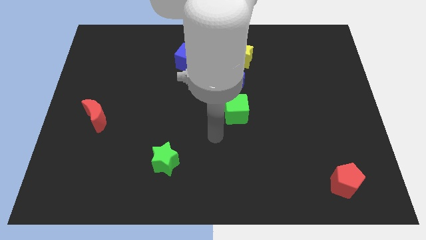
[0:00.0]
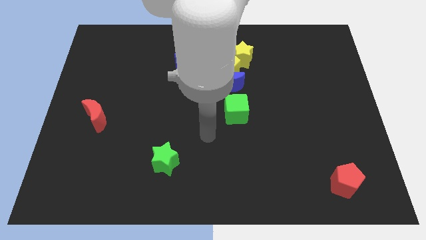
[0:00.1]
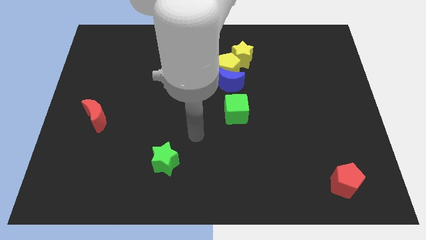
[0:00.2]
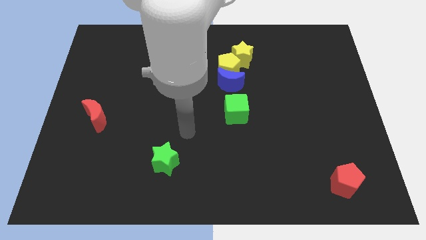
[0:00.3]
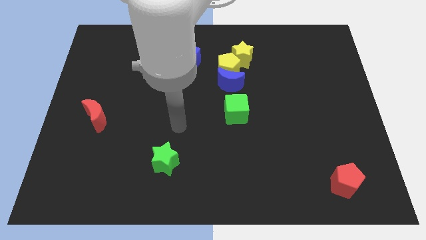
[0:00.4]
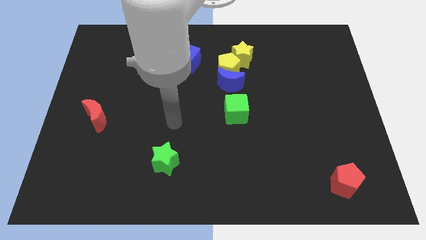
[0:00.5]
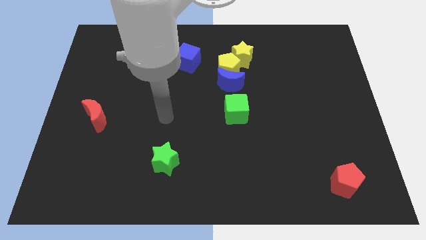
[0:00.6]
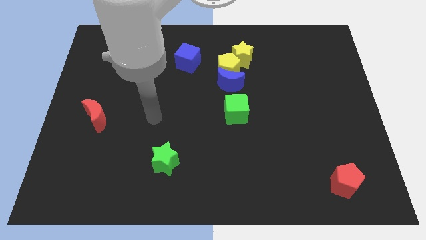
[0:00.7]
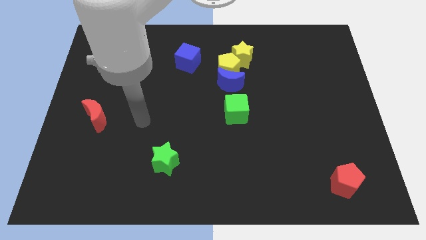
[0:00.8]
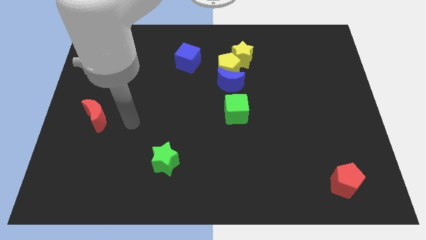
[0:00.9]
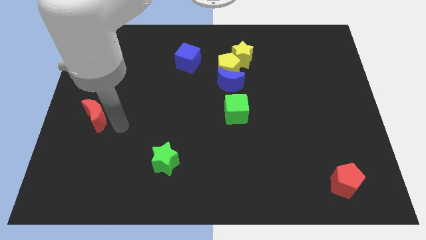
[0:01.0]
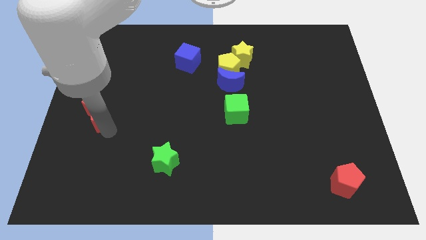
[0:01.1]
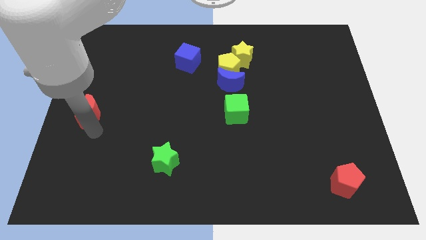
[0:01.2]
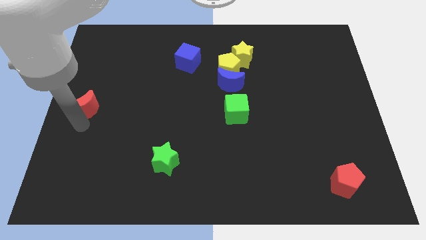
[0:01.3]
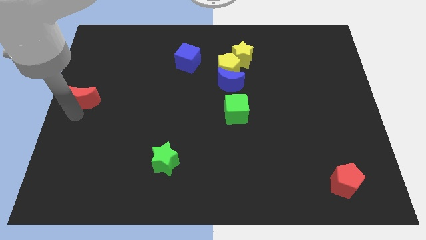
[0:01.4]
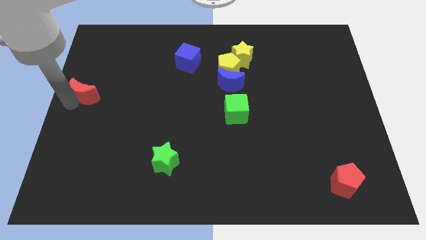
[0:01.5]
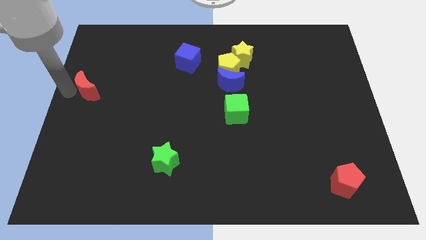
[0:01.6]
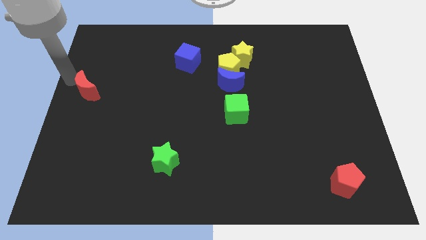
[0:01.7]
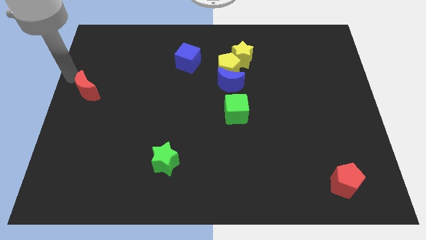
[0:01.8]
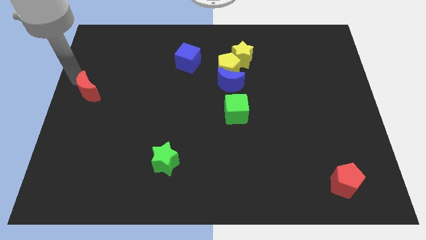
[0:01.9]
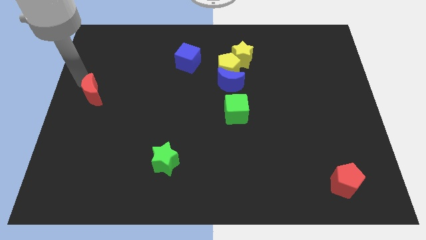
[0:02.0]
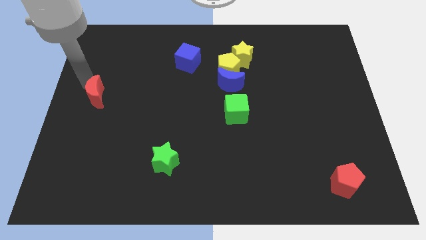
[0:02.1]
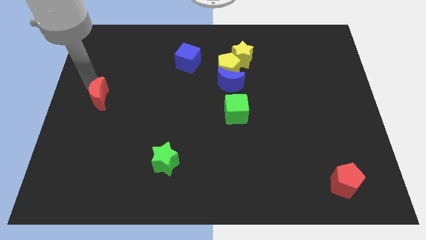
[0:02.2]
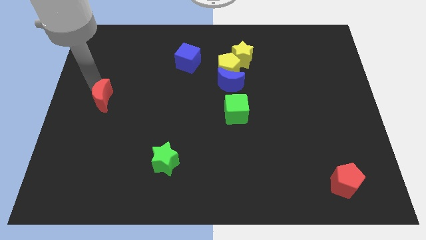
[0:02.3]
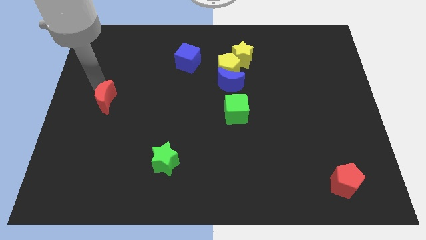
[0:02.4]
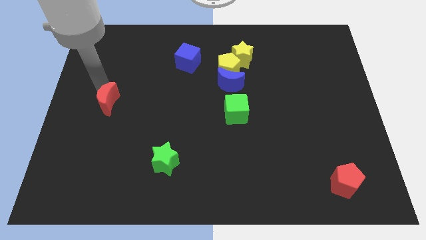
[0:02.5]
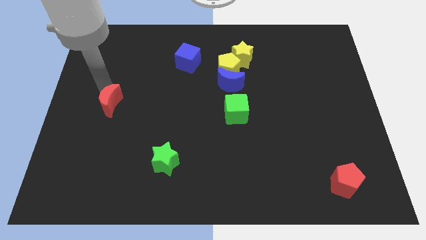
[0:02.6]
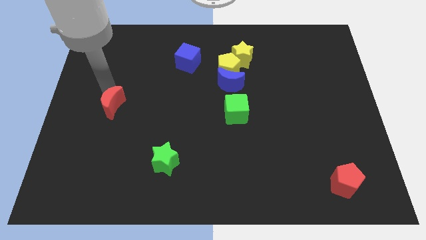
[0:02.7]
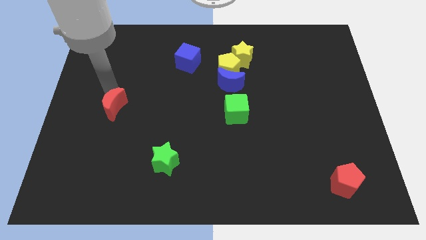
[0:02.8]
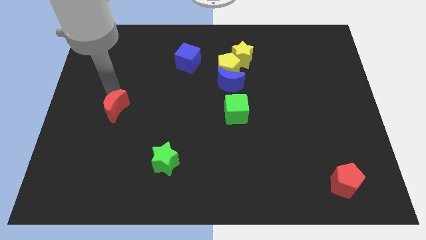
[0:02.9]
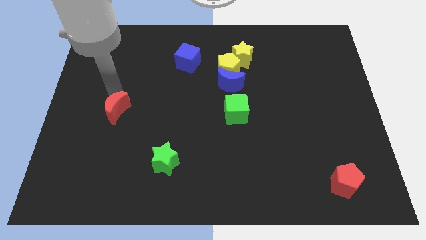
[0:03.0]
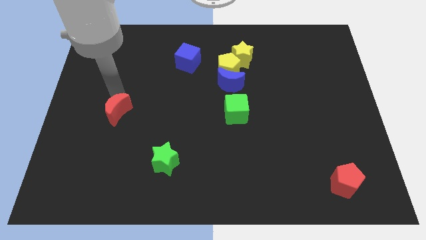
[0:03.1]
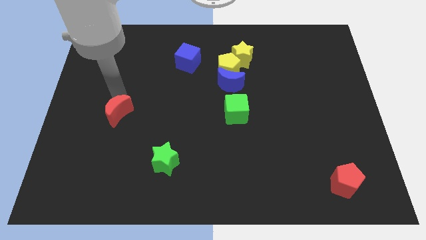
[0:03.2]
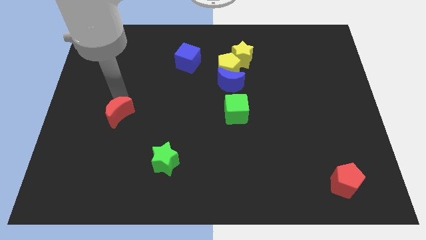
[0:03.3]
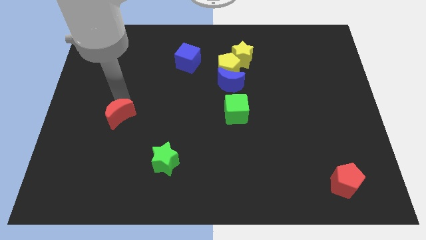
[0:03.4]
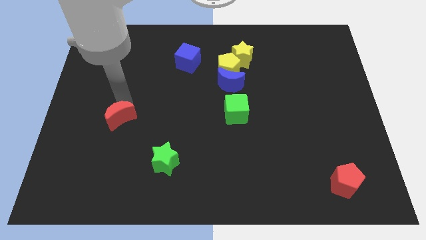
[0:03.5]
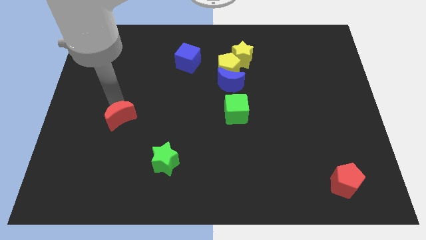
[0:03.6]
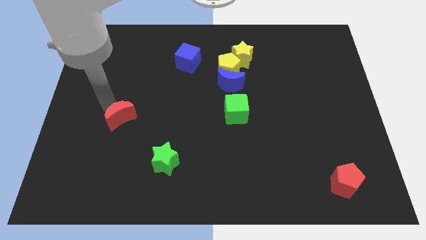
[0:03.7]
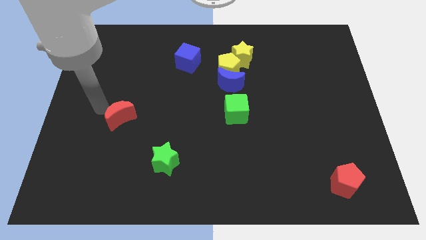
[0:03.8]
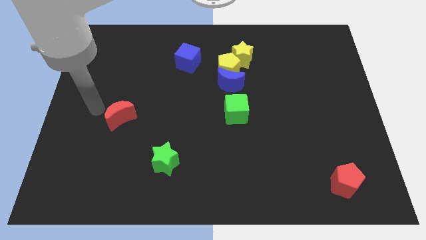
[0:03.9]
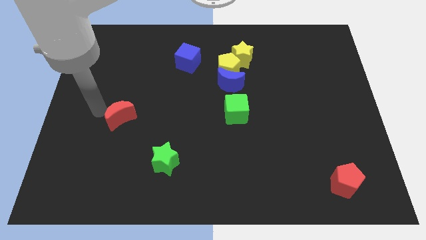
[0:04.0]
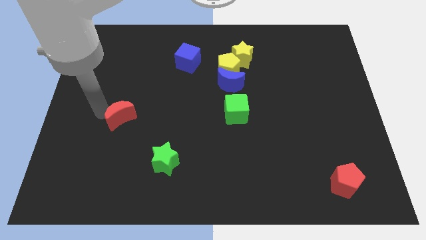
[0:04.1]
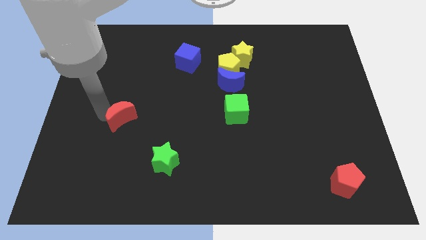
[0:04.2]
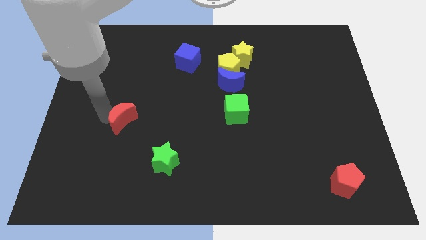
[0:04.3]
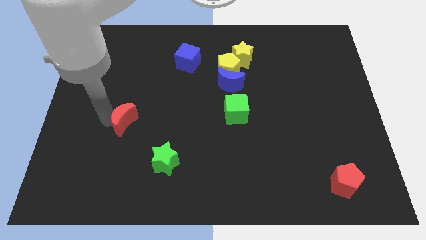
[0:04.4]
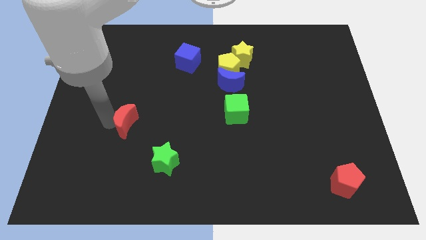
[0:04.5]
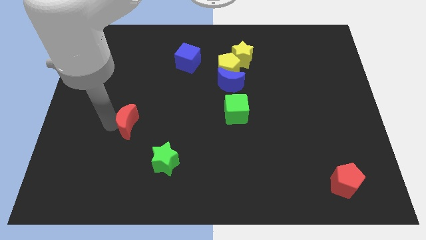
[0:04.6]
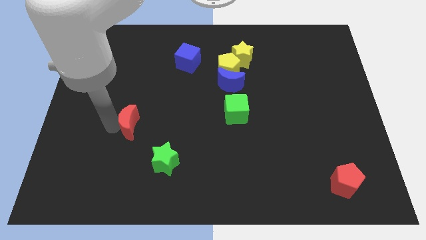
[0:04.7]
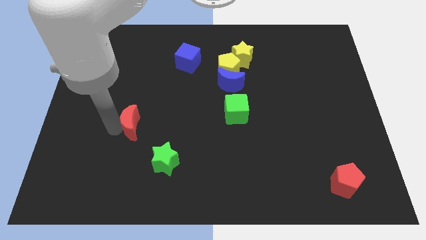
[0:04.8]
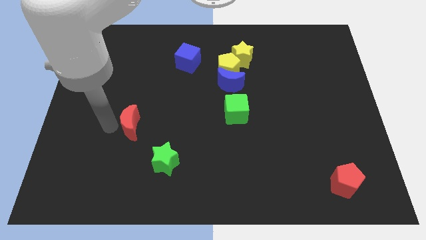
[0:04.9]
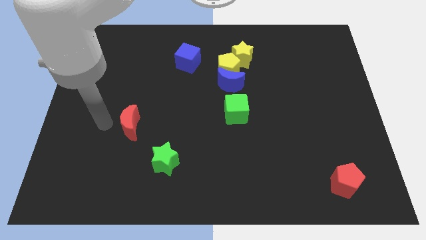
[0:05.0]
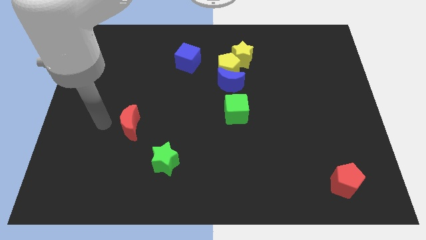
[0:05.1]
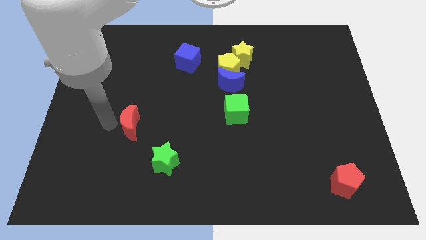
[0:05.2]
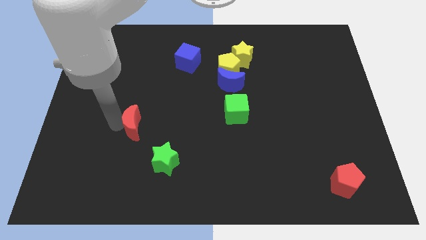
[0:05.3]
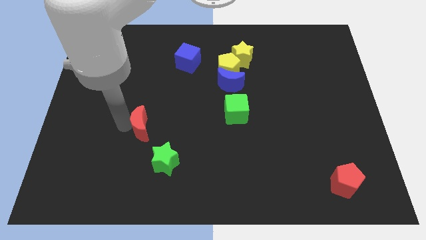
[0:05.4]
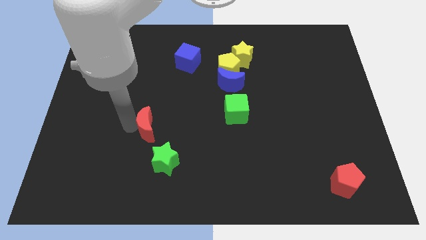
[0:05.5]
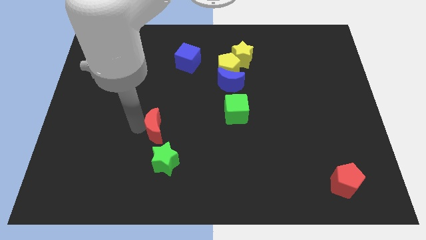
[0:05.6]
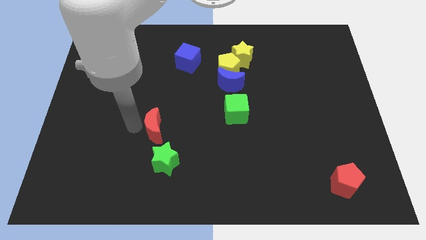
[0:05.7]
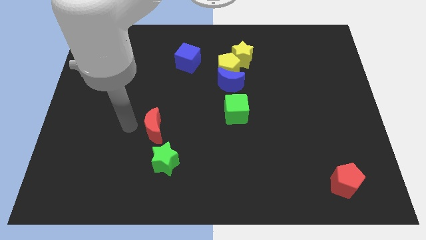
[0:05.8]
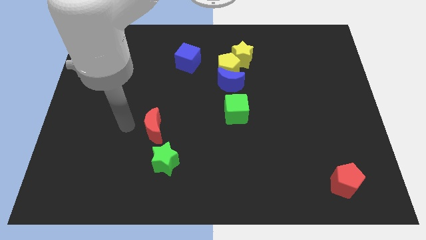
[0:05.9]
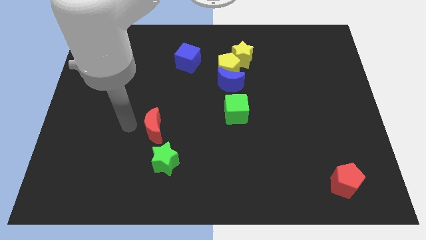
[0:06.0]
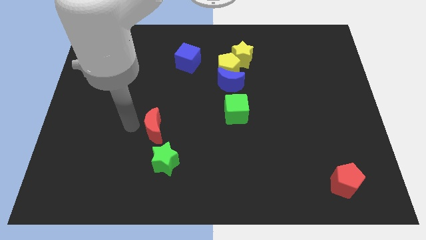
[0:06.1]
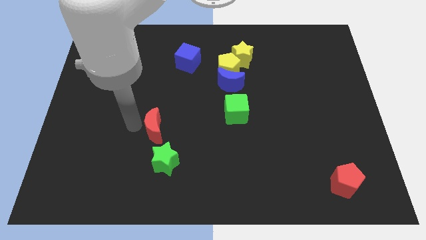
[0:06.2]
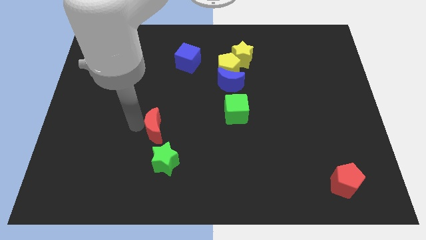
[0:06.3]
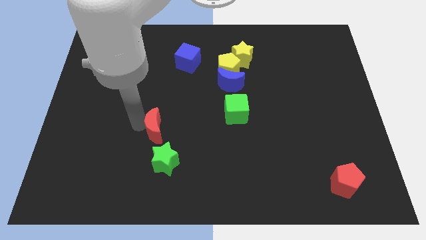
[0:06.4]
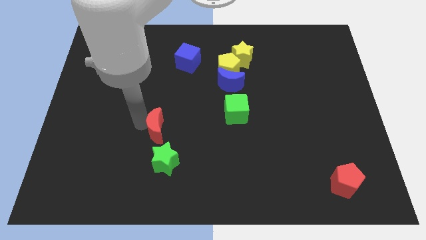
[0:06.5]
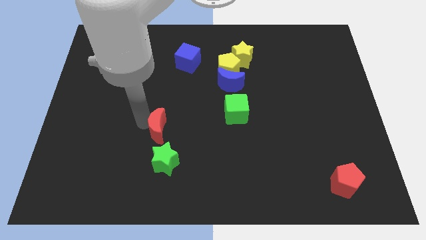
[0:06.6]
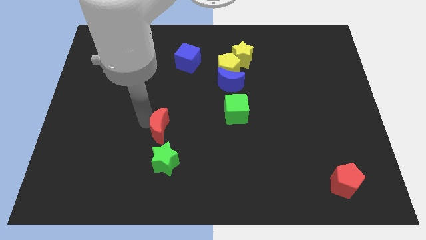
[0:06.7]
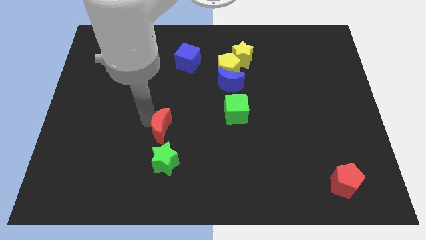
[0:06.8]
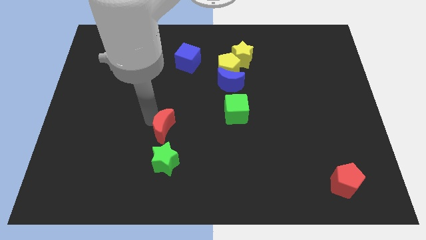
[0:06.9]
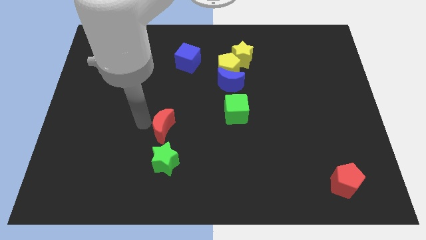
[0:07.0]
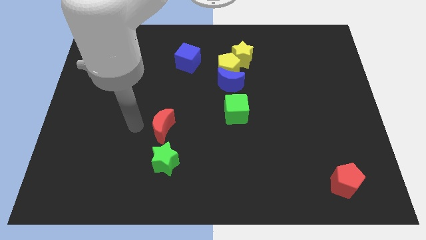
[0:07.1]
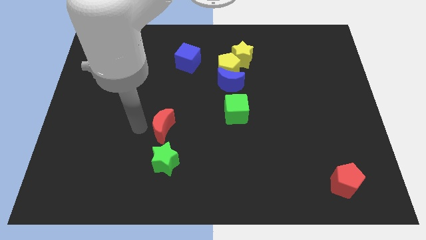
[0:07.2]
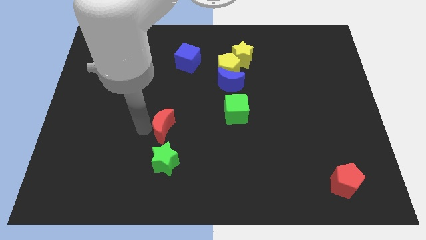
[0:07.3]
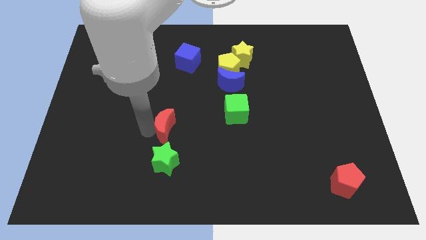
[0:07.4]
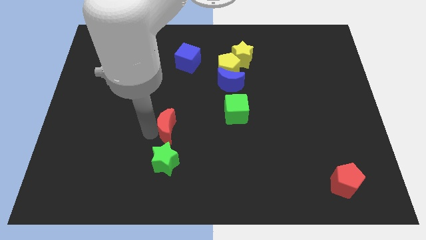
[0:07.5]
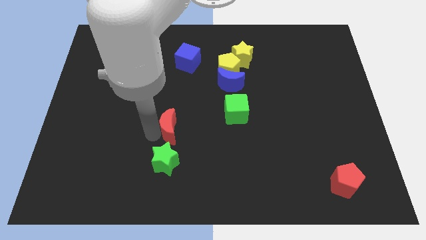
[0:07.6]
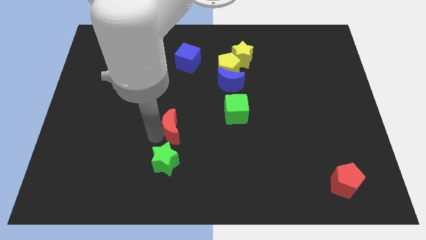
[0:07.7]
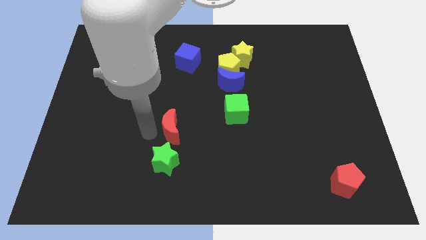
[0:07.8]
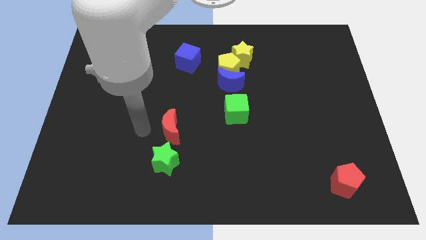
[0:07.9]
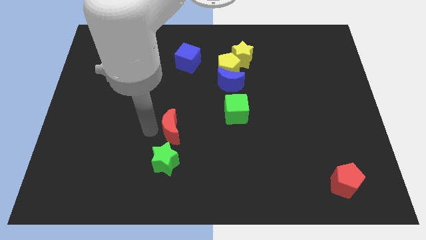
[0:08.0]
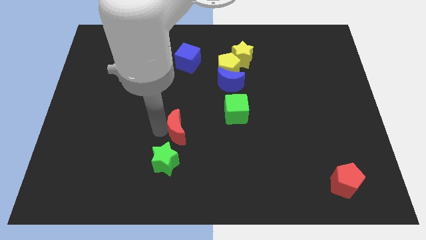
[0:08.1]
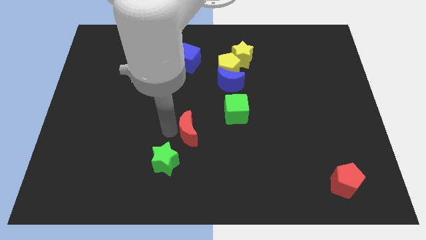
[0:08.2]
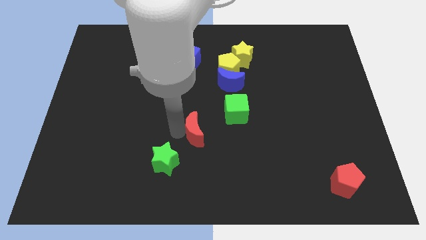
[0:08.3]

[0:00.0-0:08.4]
push the red moon to the bottom left of the green cube
